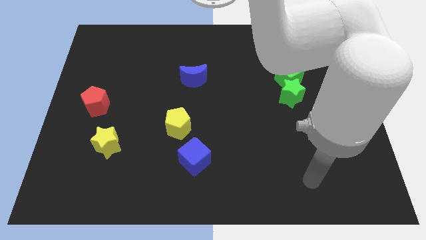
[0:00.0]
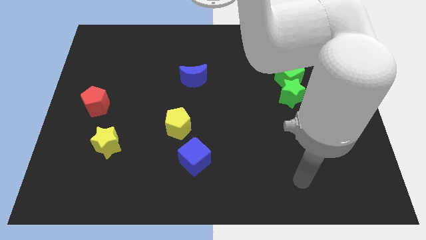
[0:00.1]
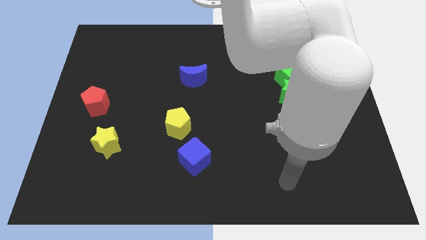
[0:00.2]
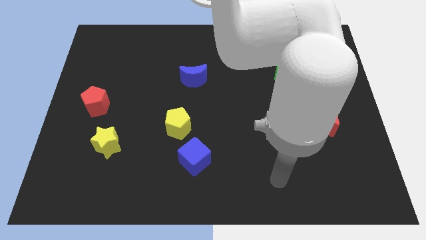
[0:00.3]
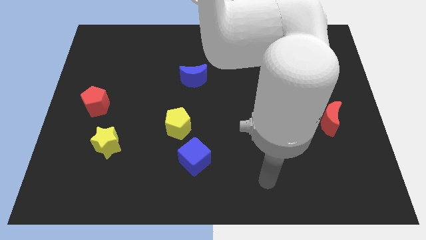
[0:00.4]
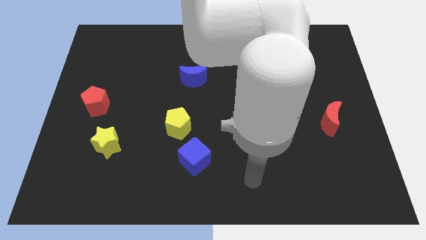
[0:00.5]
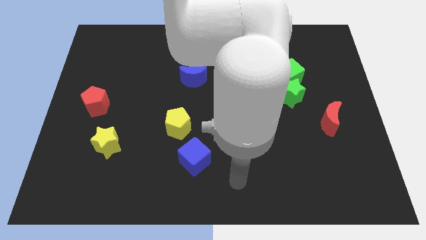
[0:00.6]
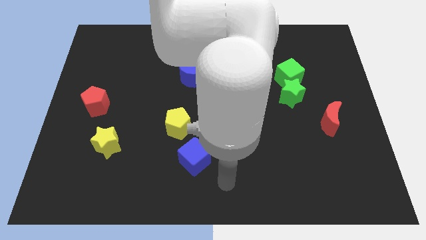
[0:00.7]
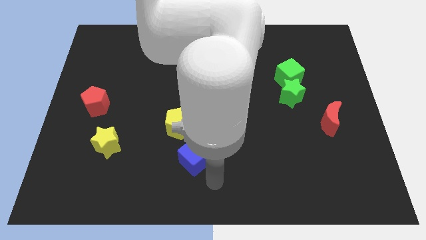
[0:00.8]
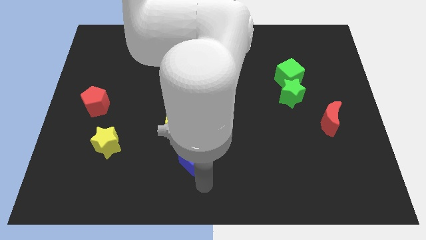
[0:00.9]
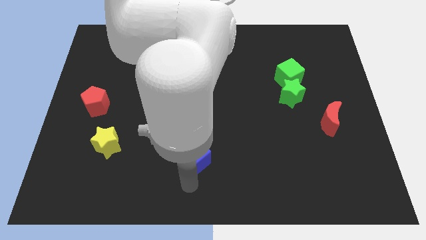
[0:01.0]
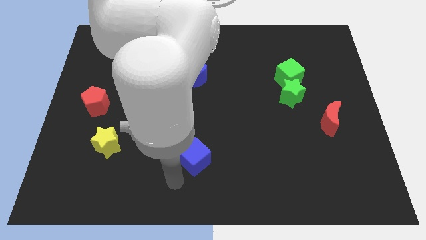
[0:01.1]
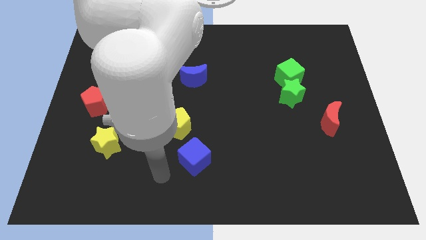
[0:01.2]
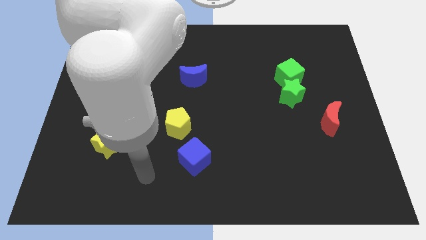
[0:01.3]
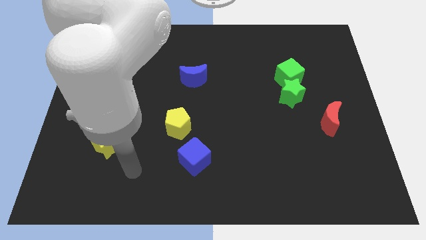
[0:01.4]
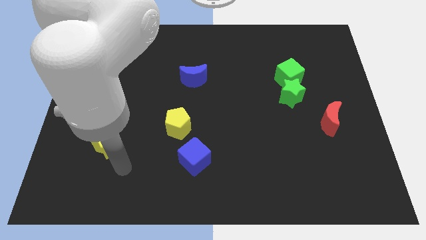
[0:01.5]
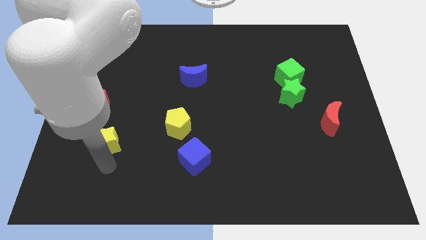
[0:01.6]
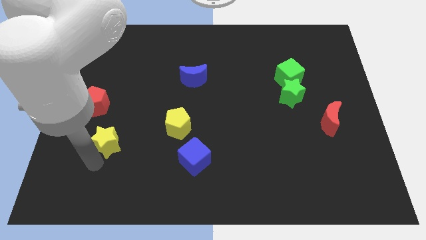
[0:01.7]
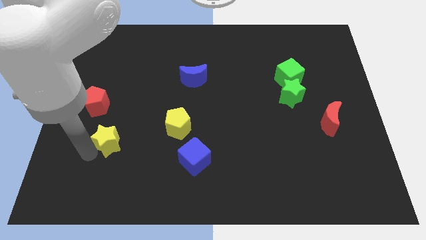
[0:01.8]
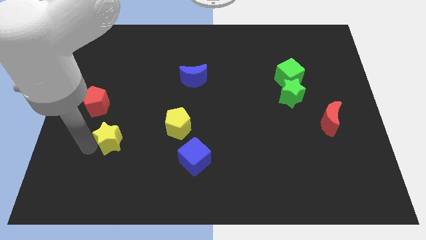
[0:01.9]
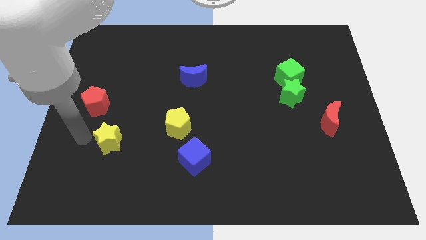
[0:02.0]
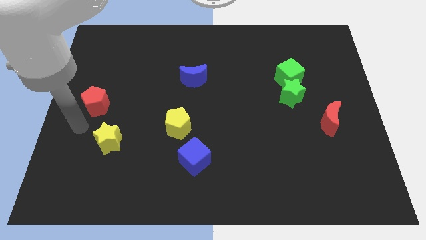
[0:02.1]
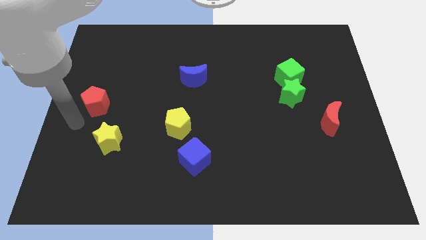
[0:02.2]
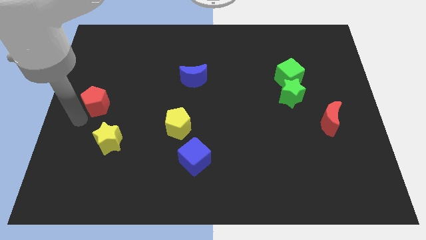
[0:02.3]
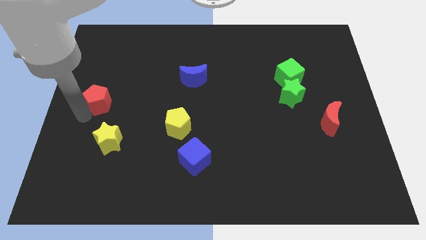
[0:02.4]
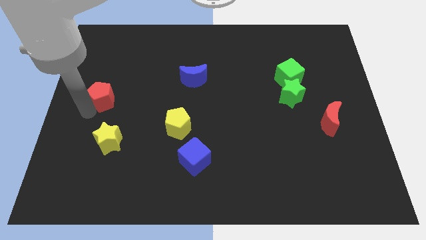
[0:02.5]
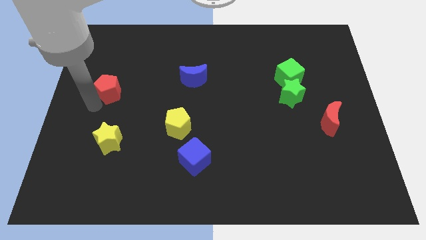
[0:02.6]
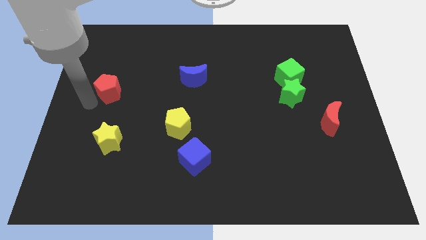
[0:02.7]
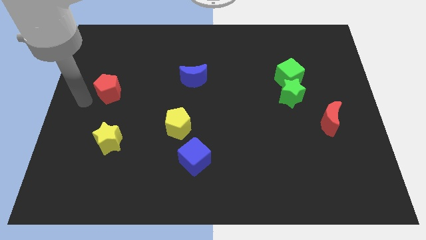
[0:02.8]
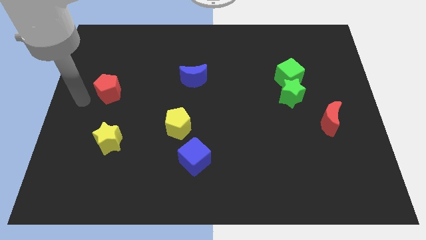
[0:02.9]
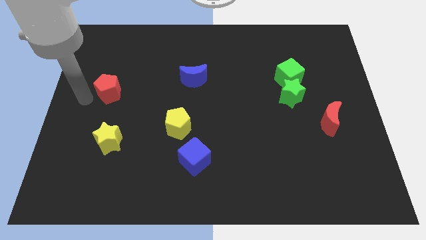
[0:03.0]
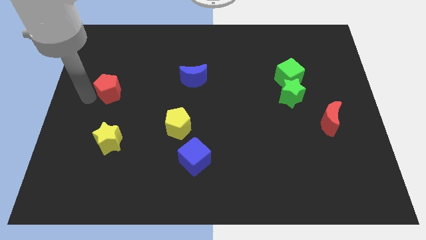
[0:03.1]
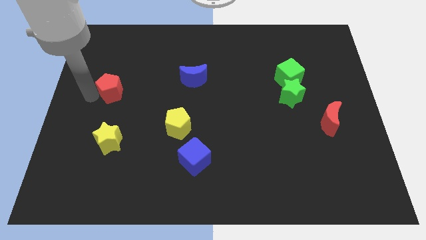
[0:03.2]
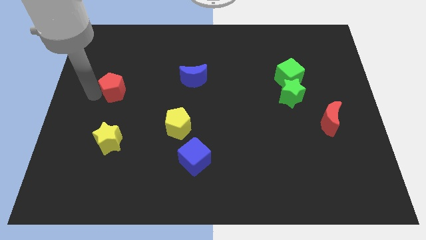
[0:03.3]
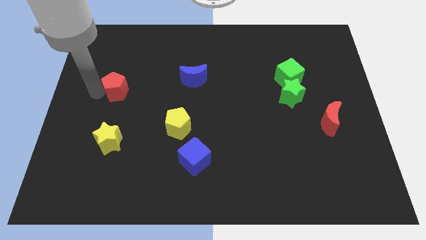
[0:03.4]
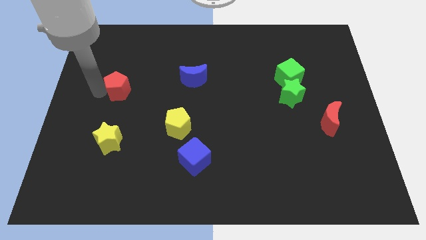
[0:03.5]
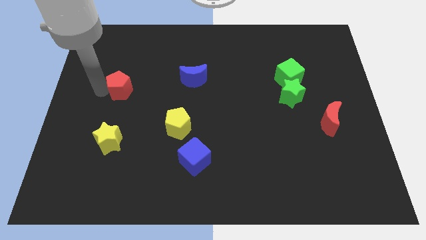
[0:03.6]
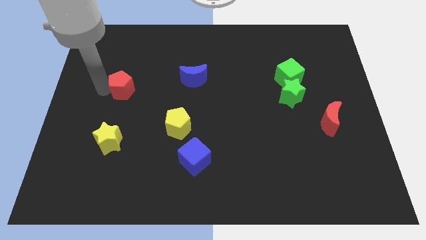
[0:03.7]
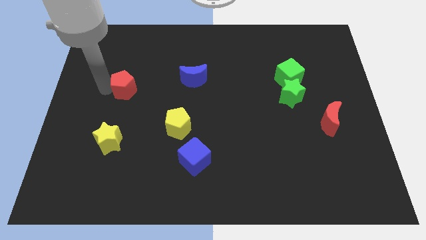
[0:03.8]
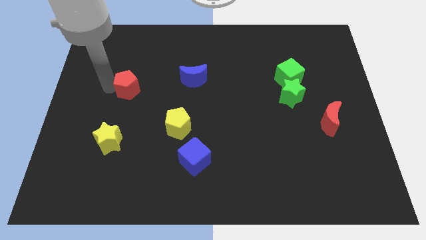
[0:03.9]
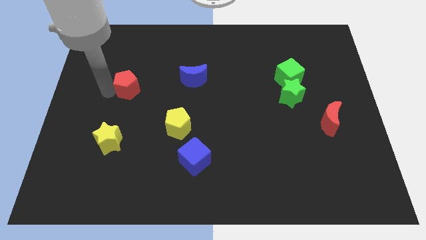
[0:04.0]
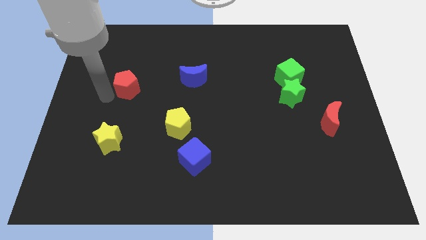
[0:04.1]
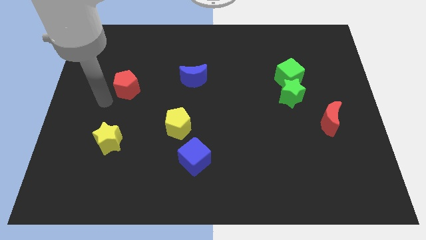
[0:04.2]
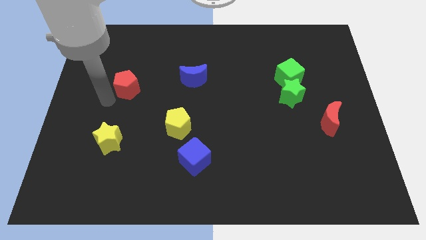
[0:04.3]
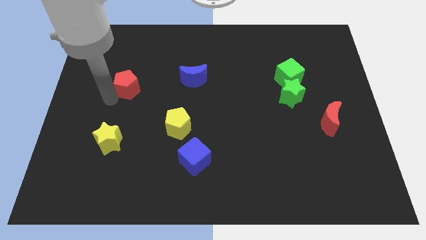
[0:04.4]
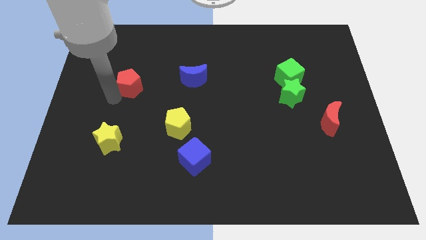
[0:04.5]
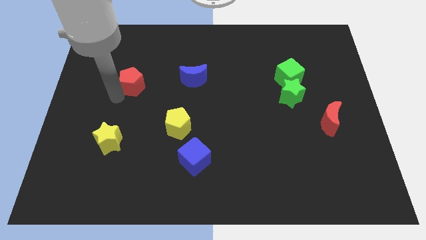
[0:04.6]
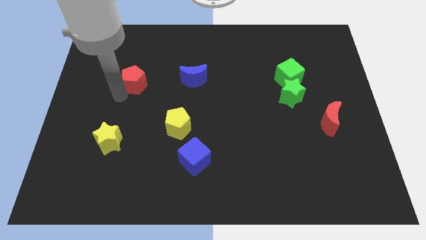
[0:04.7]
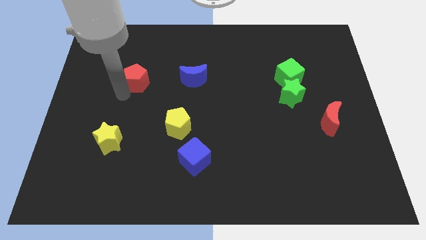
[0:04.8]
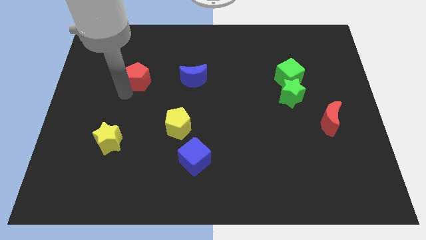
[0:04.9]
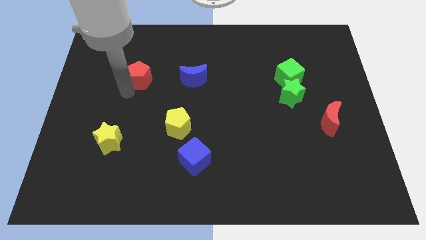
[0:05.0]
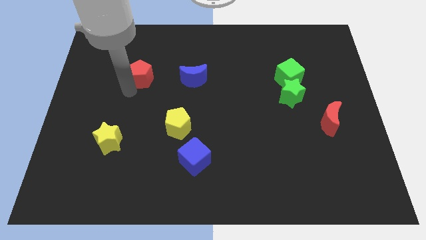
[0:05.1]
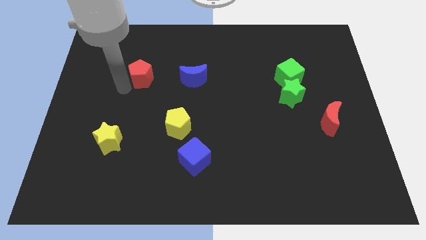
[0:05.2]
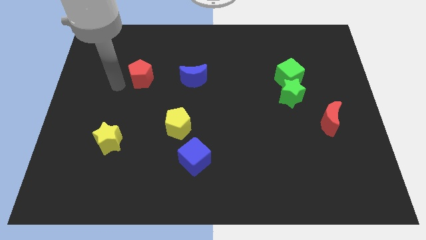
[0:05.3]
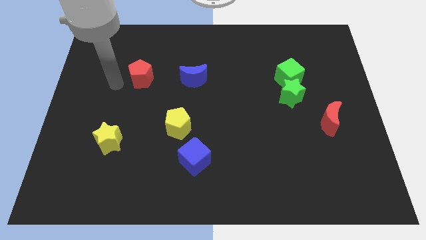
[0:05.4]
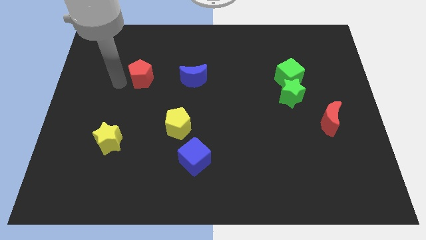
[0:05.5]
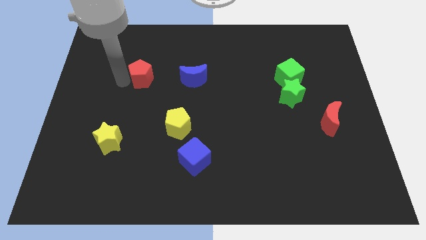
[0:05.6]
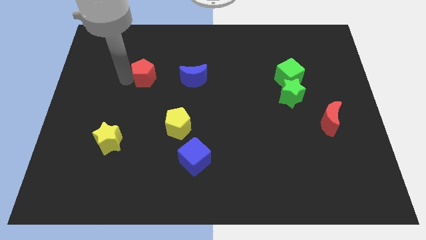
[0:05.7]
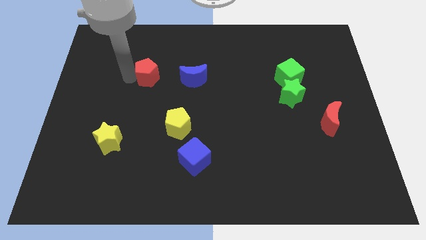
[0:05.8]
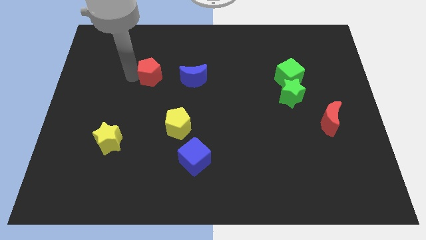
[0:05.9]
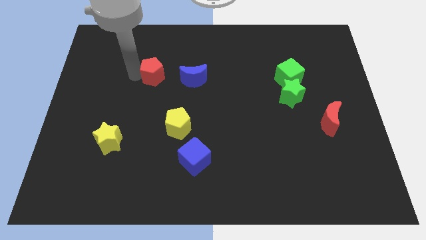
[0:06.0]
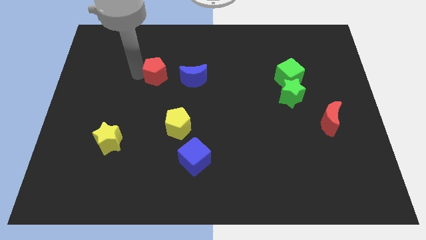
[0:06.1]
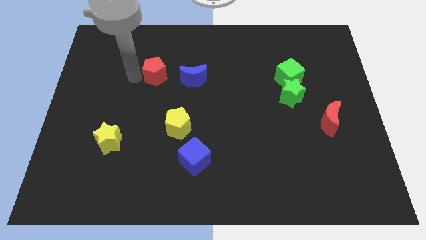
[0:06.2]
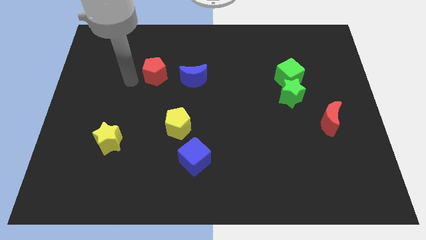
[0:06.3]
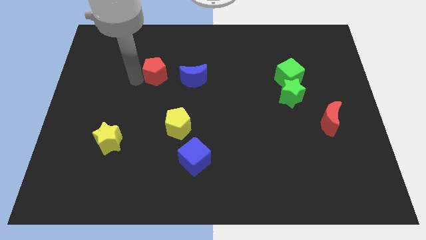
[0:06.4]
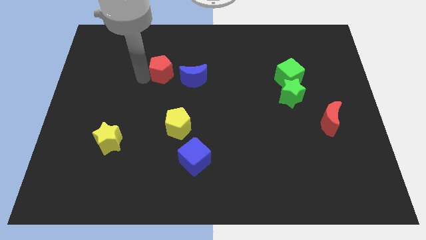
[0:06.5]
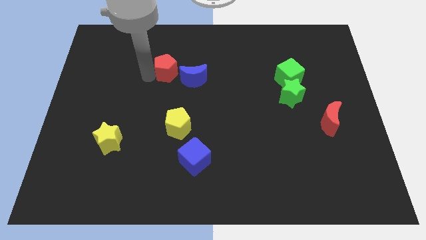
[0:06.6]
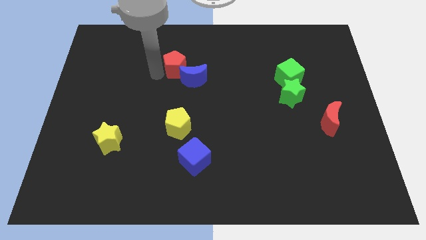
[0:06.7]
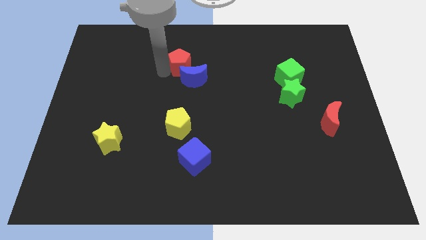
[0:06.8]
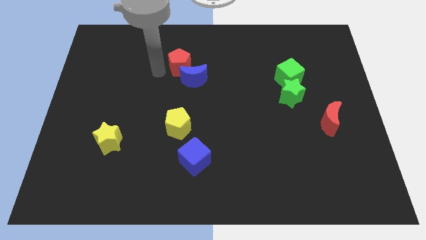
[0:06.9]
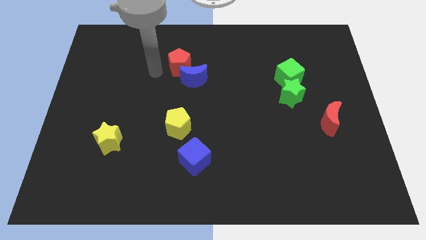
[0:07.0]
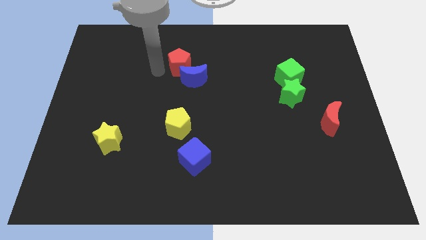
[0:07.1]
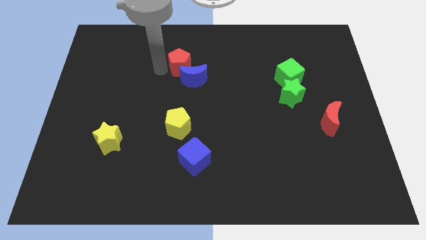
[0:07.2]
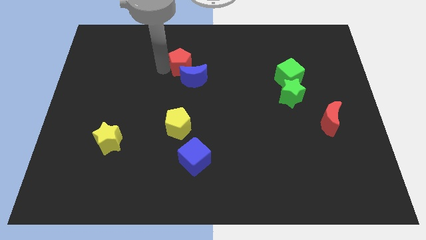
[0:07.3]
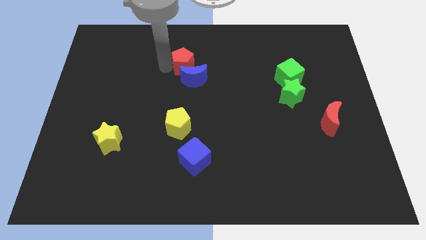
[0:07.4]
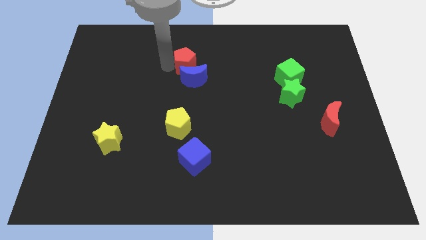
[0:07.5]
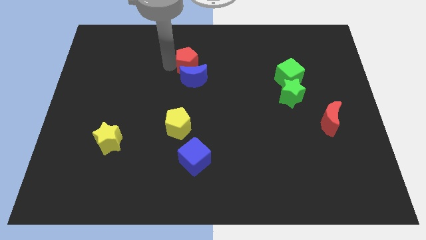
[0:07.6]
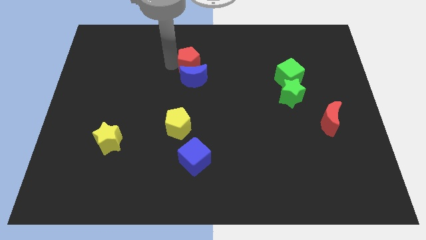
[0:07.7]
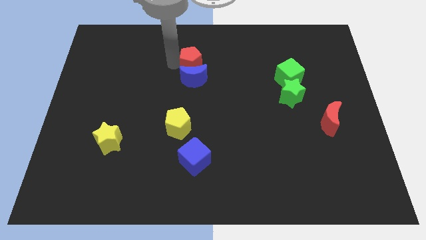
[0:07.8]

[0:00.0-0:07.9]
put the red pentagon to the top right side of the blue moon
